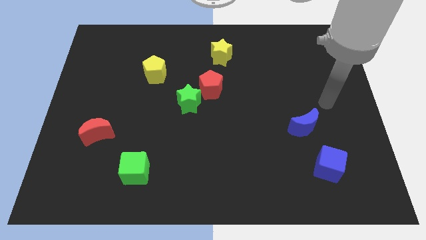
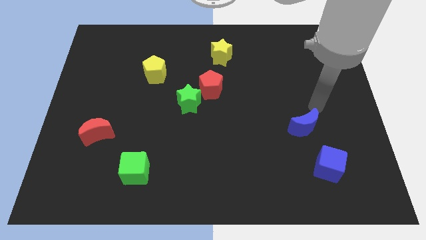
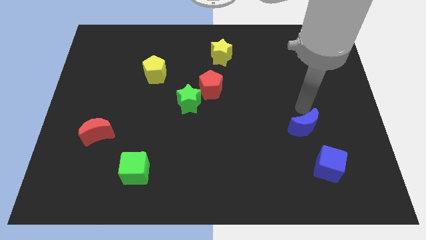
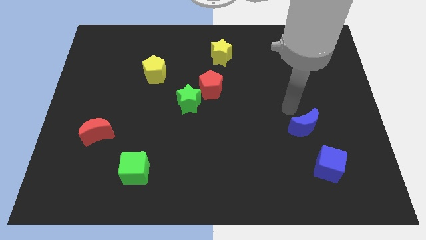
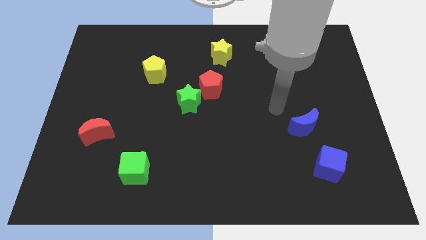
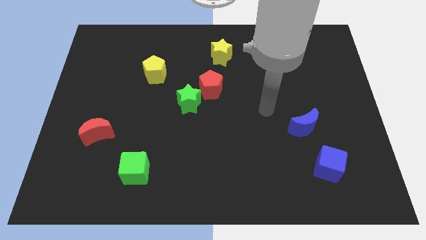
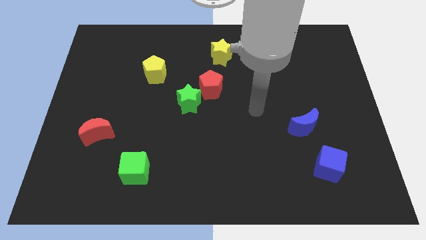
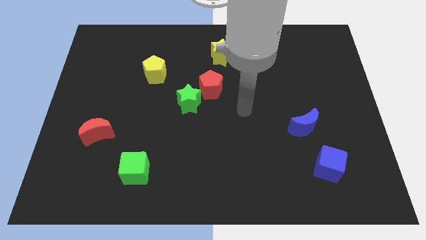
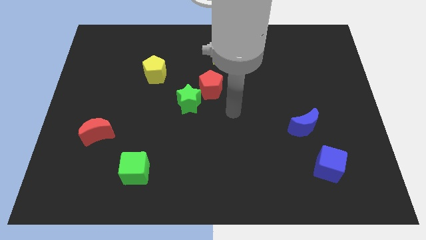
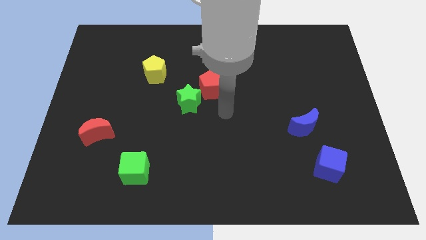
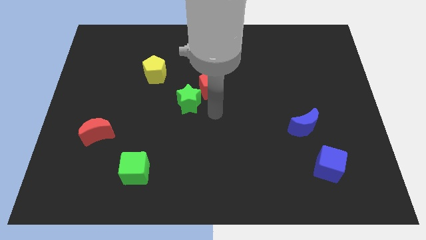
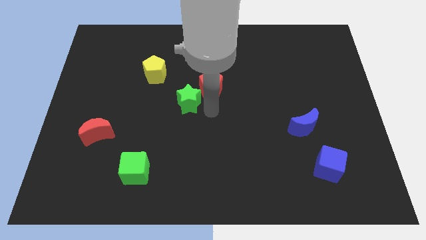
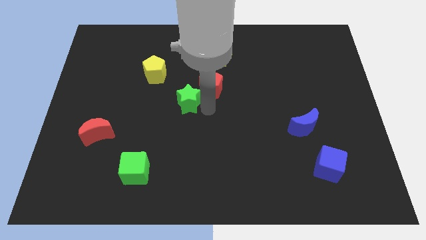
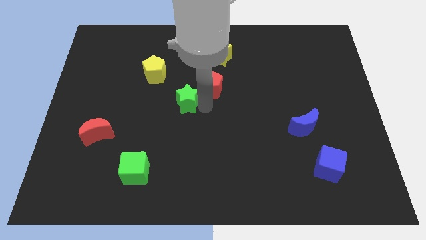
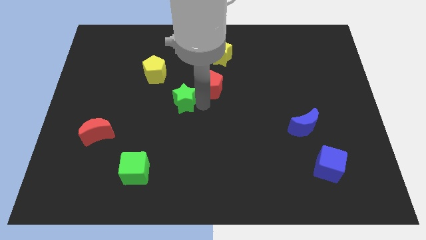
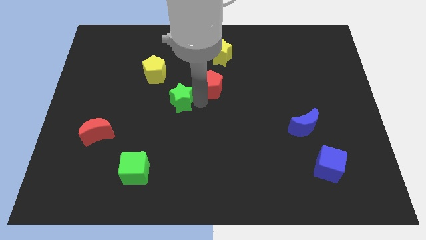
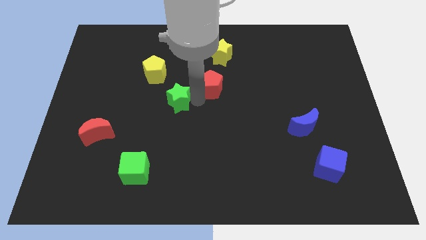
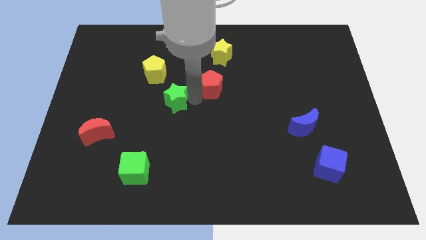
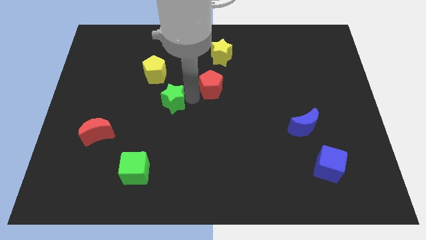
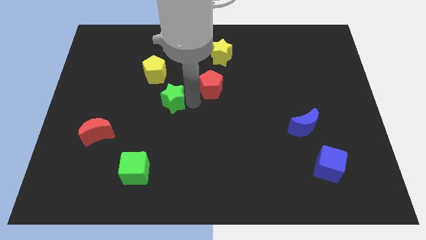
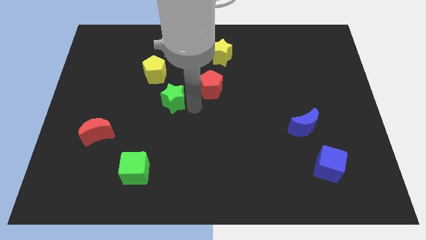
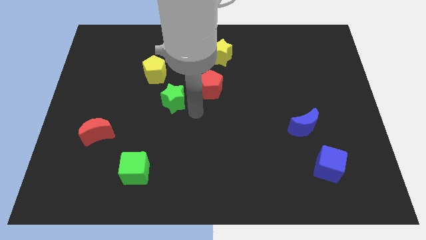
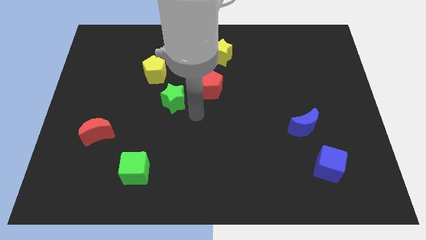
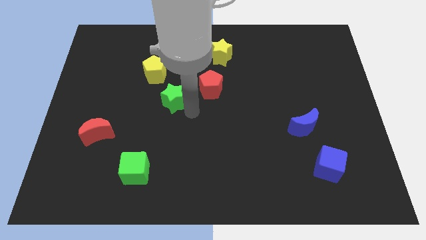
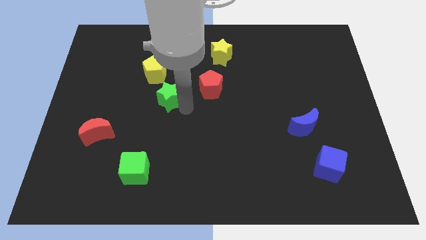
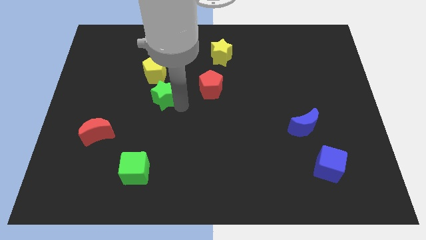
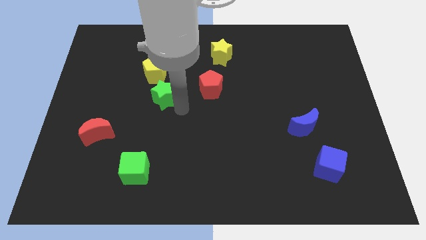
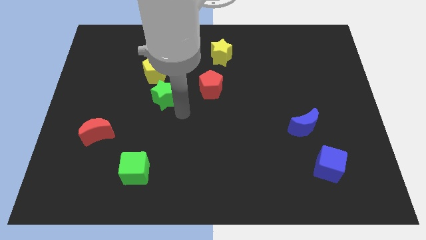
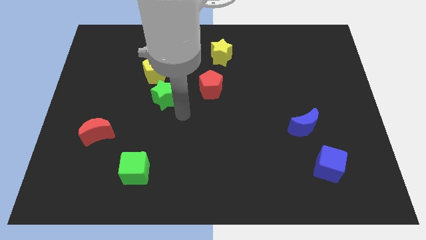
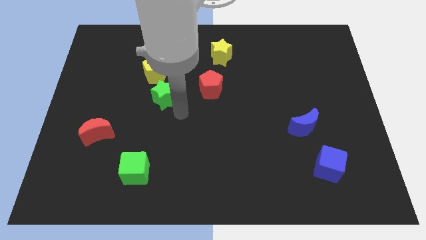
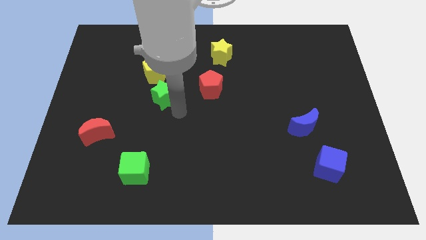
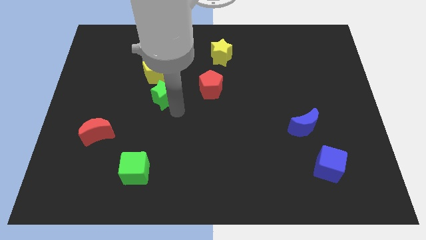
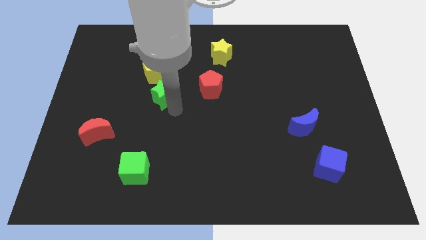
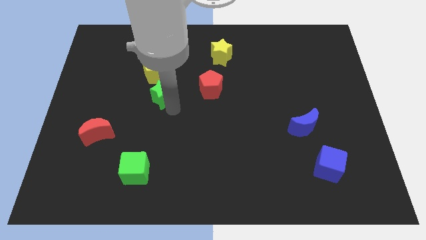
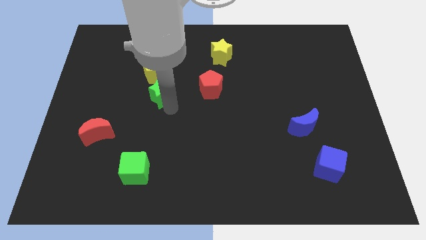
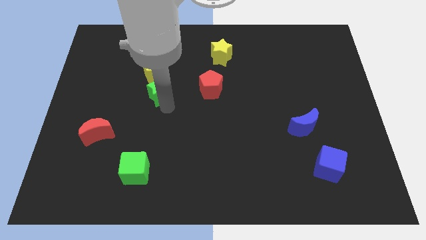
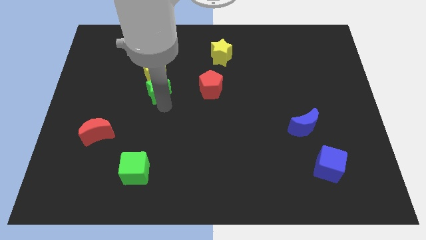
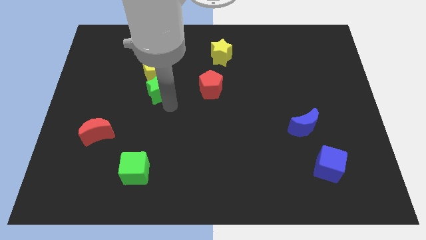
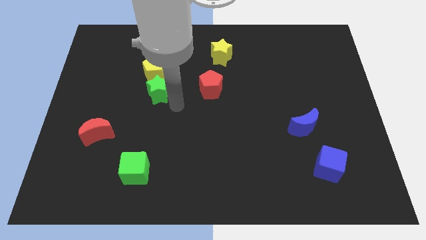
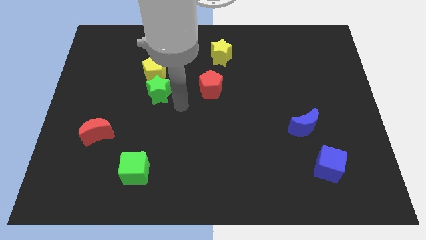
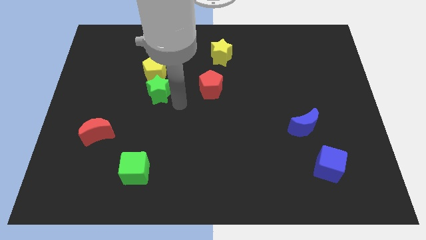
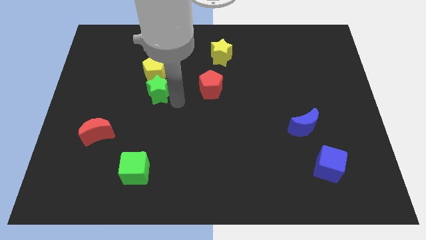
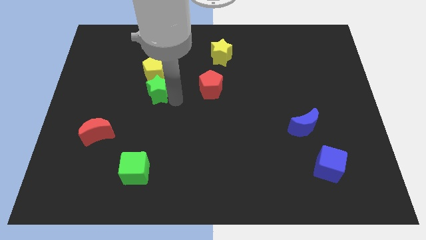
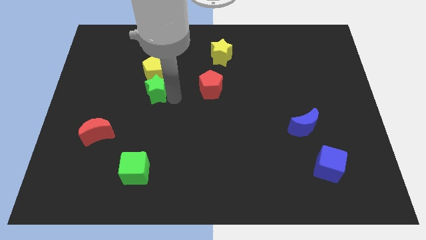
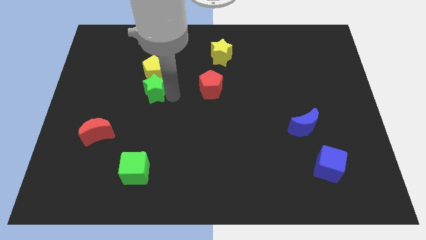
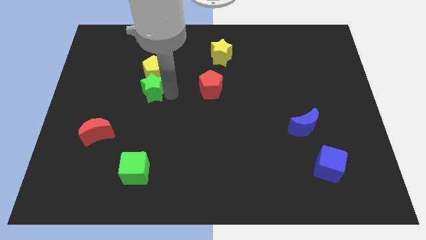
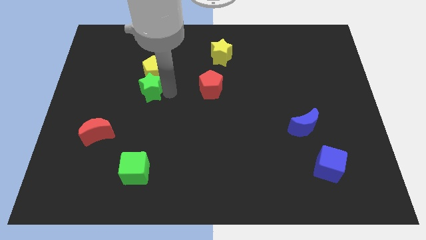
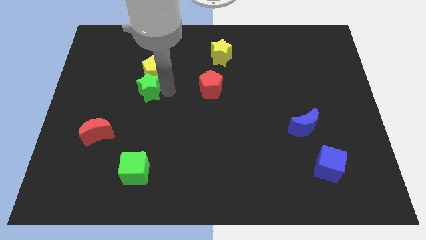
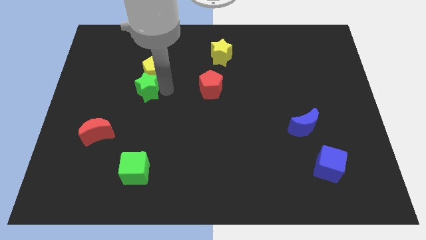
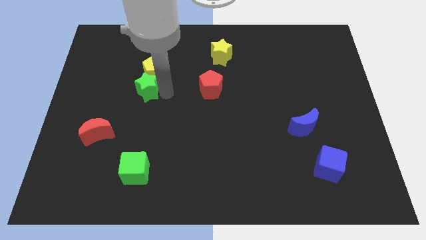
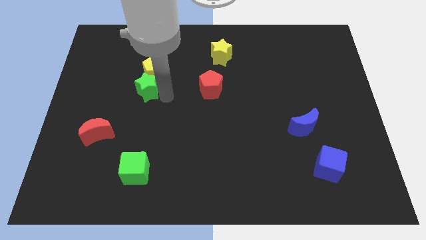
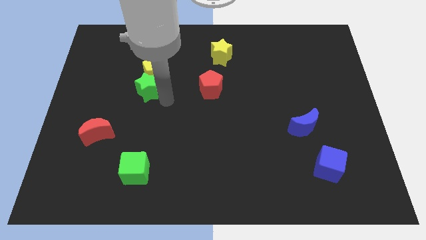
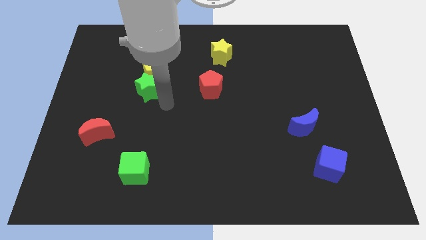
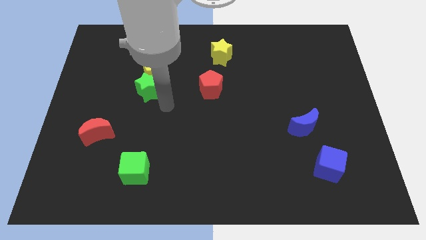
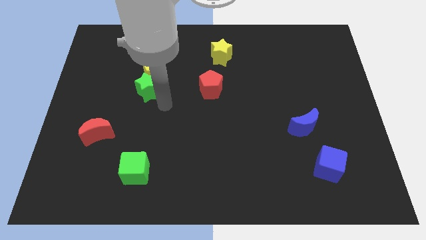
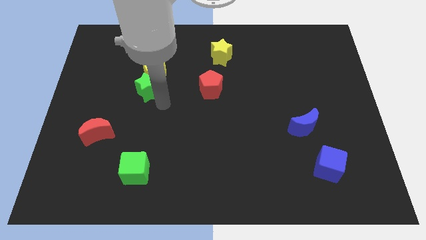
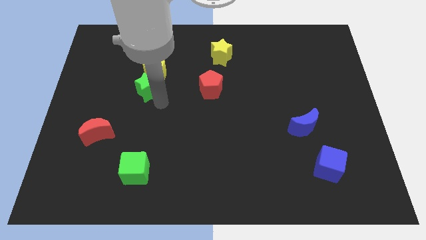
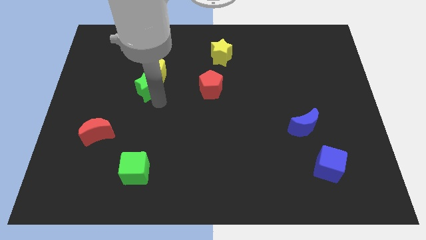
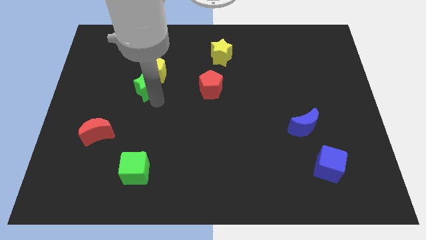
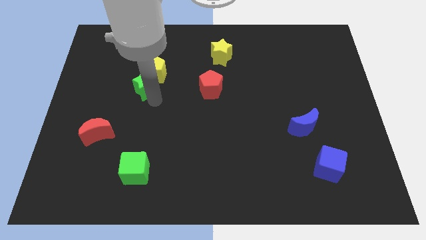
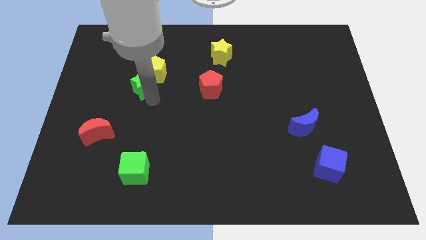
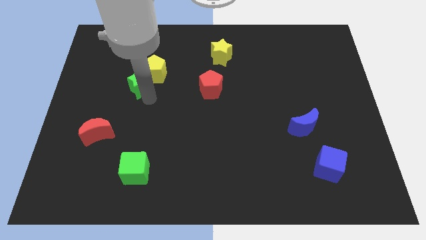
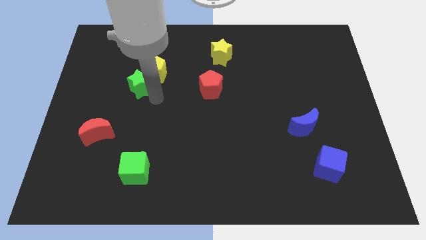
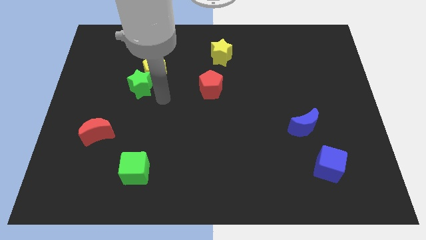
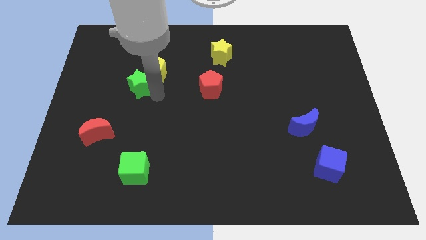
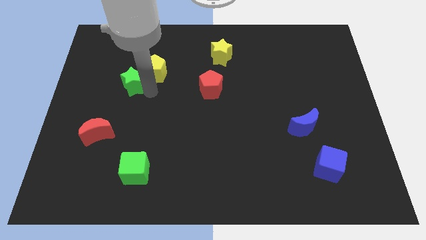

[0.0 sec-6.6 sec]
slide the green star left of the yellow pentagon

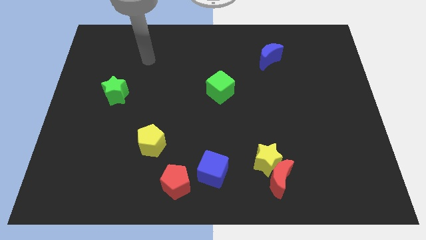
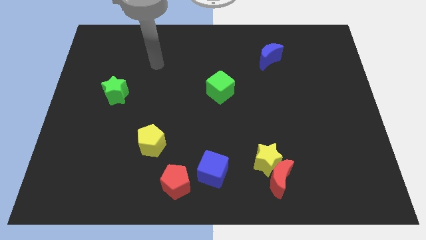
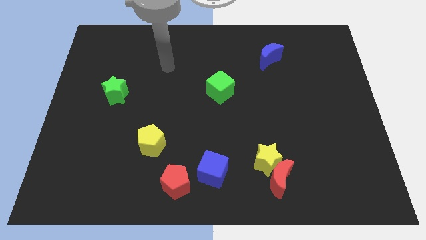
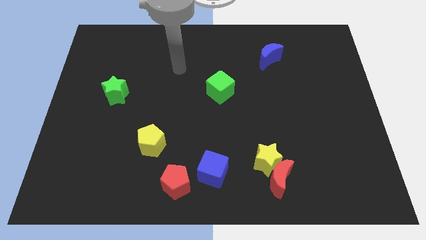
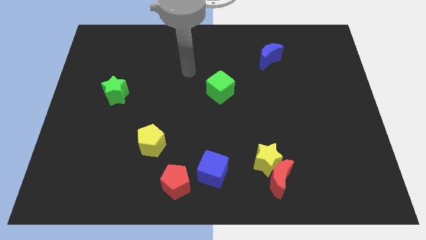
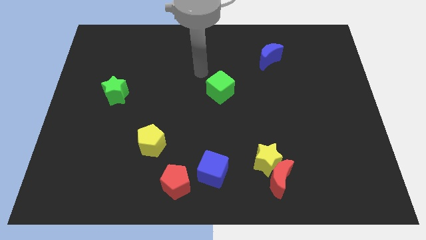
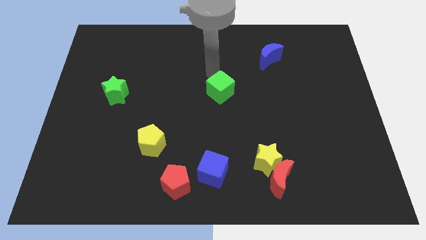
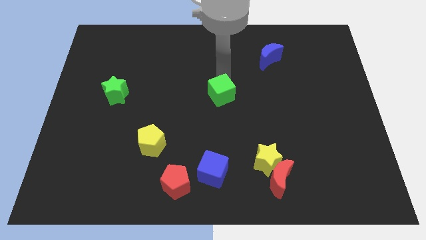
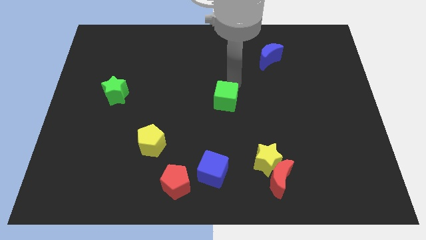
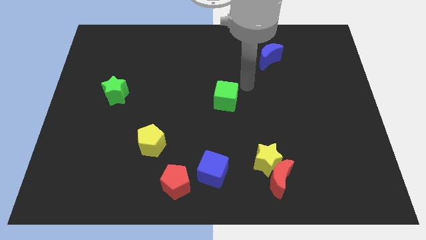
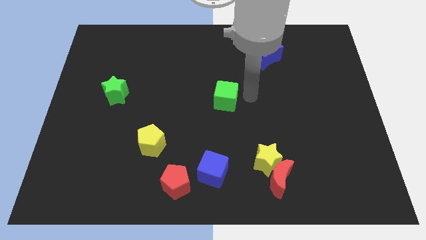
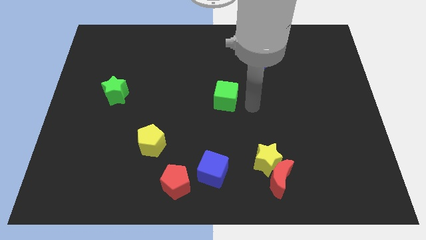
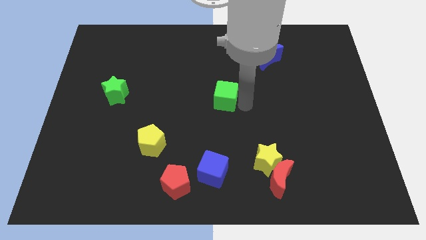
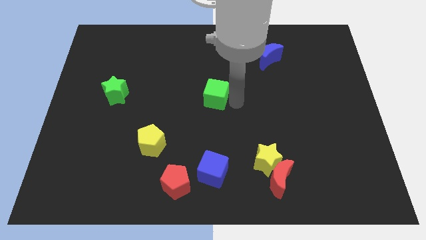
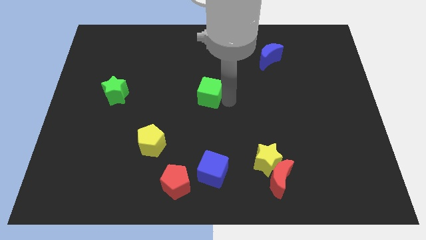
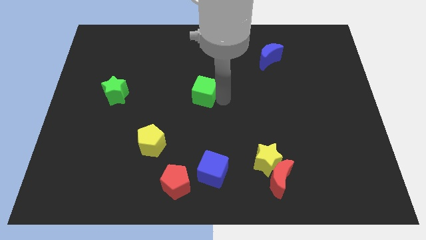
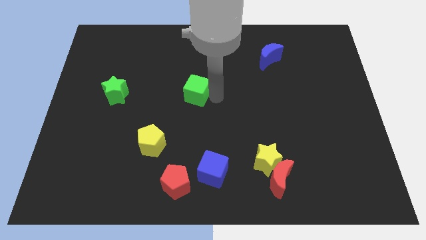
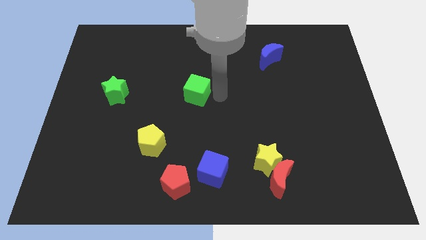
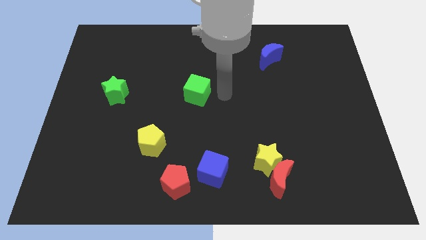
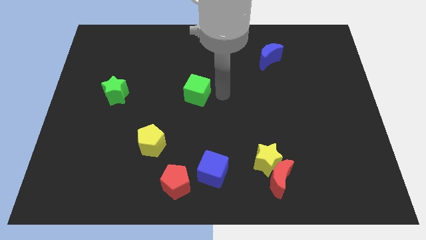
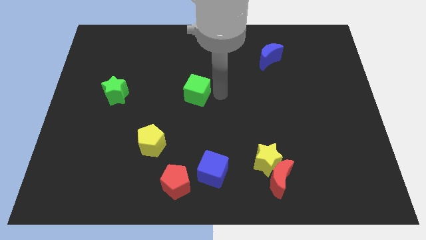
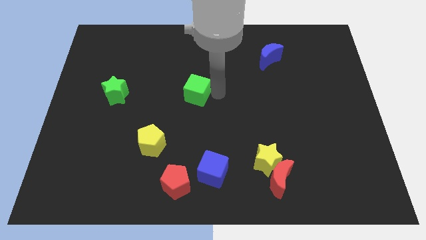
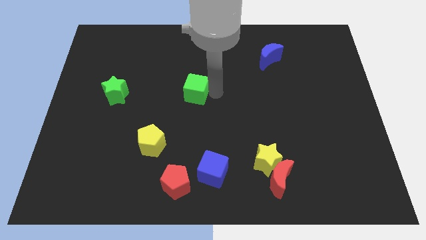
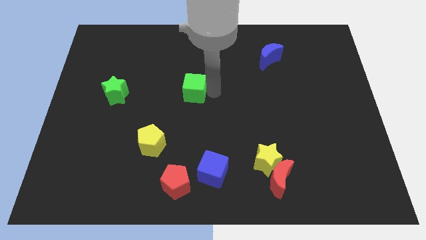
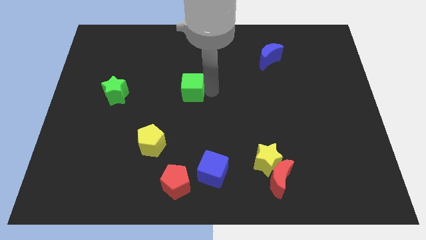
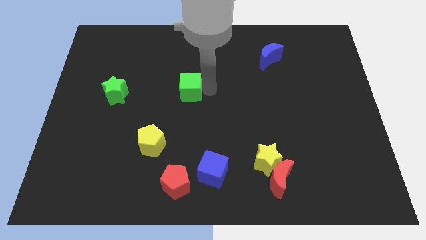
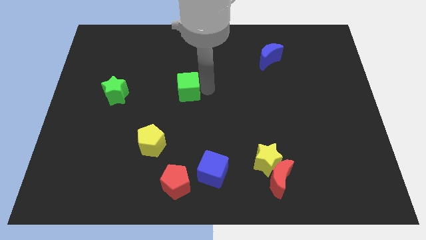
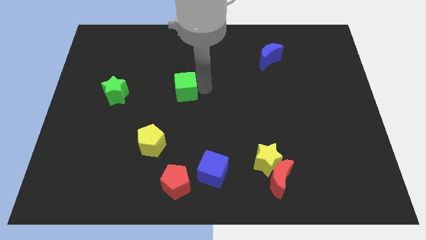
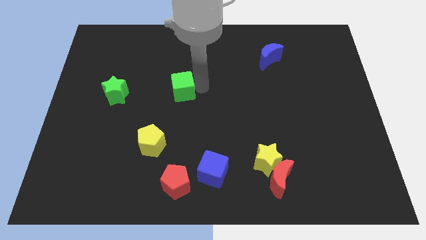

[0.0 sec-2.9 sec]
slide the green cube to the right side of the green star
